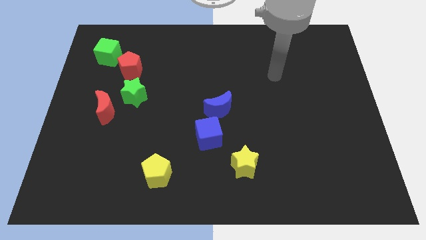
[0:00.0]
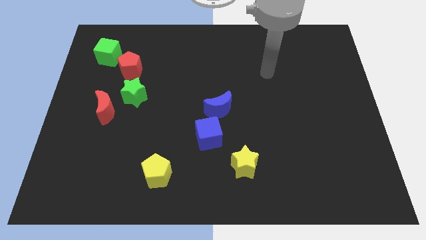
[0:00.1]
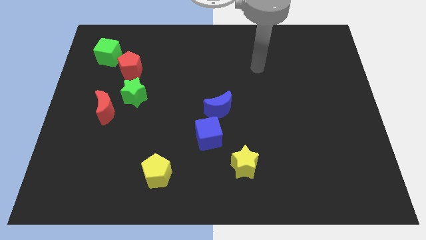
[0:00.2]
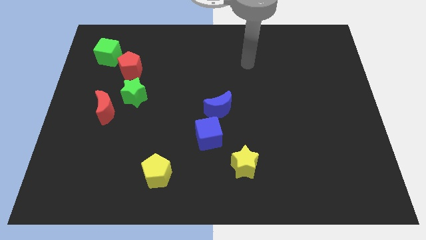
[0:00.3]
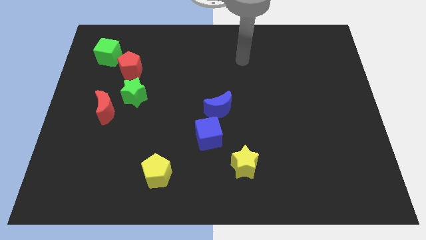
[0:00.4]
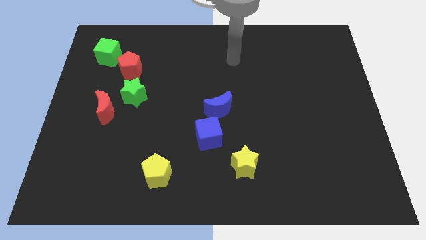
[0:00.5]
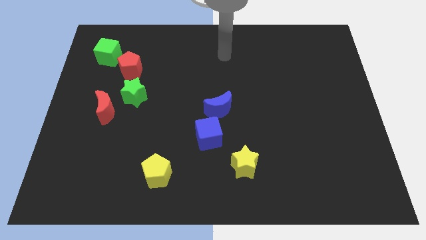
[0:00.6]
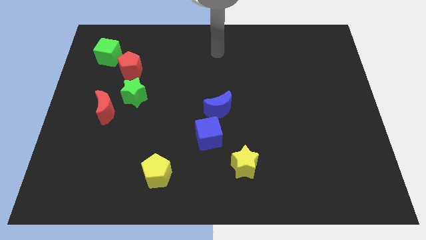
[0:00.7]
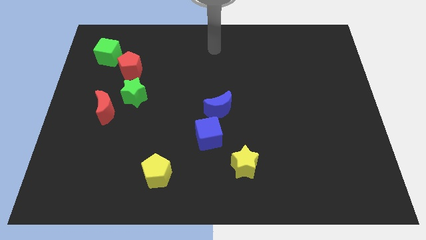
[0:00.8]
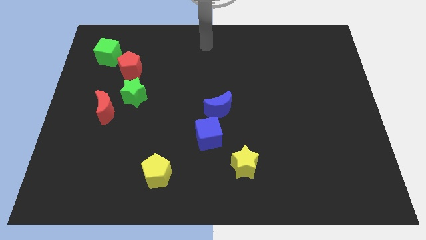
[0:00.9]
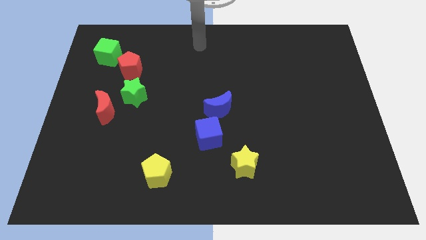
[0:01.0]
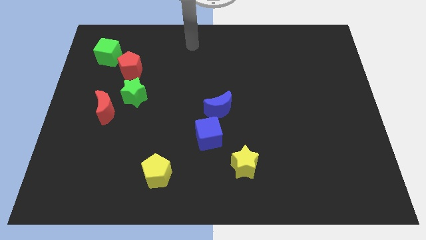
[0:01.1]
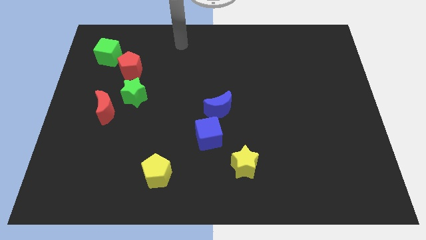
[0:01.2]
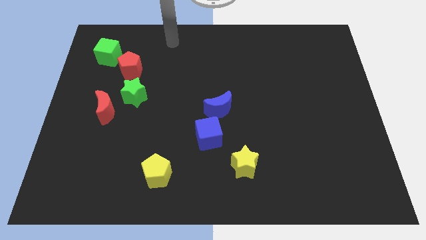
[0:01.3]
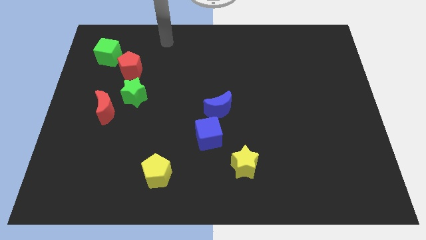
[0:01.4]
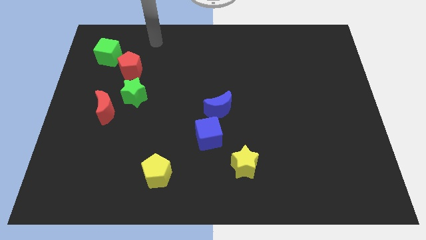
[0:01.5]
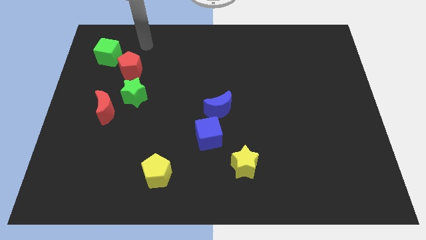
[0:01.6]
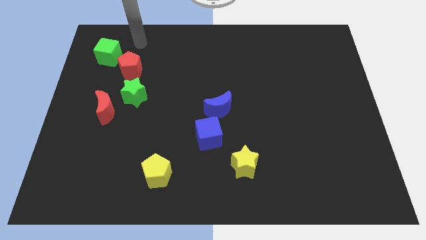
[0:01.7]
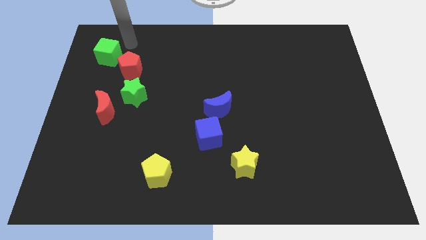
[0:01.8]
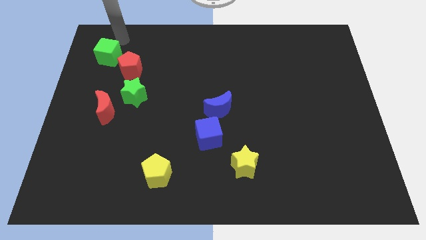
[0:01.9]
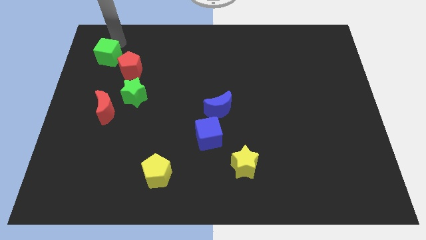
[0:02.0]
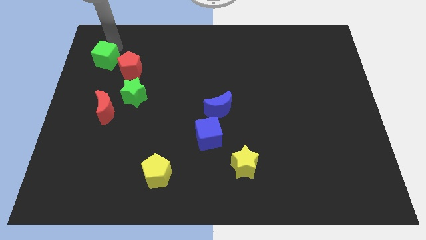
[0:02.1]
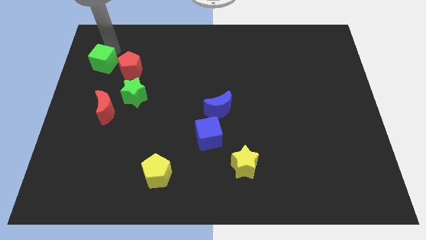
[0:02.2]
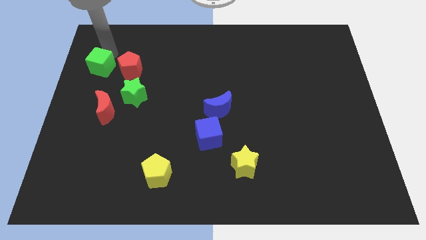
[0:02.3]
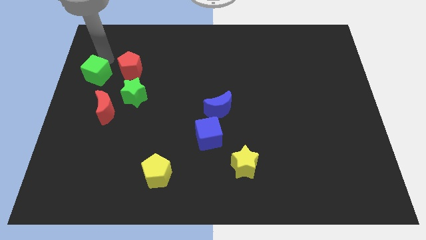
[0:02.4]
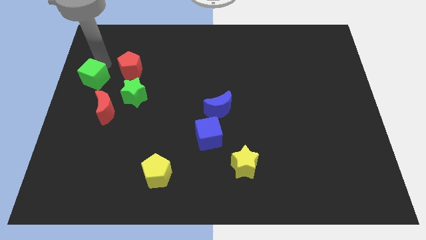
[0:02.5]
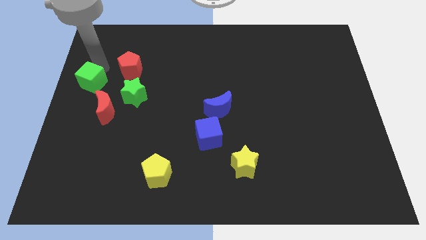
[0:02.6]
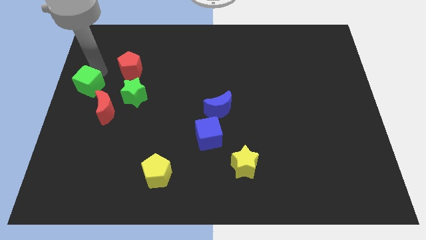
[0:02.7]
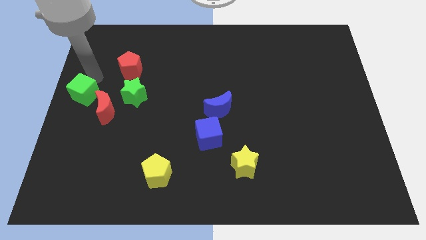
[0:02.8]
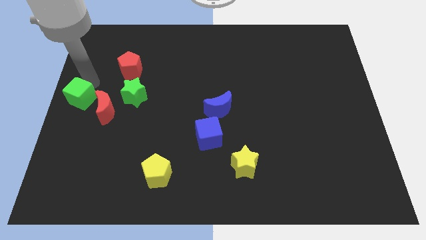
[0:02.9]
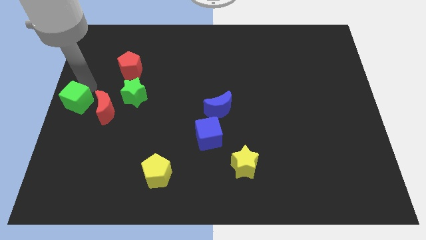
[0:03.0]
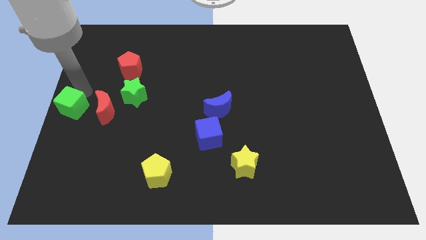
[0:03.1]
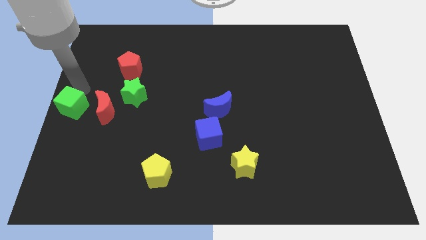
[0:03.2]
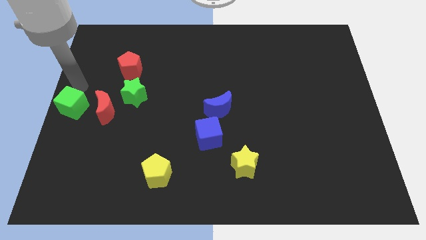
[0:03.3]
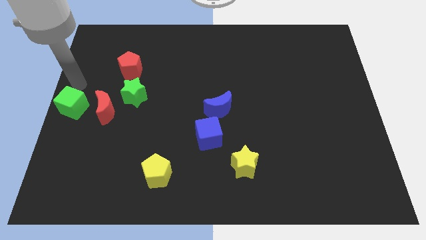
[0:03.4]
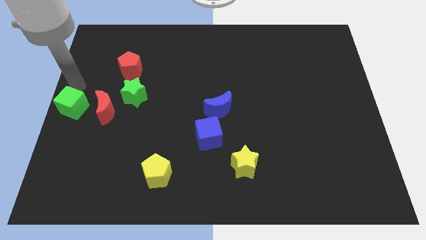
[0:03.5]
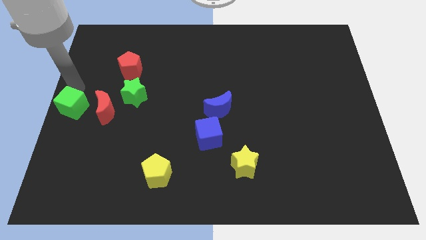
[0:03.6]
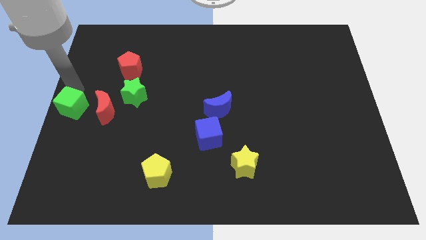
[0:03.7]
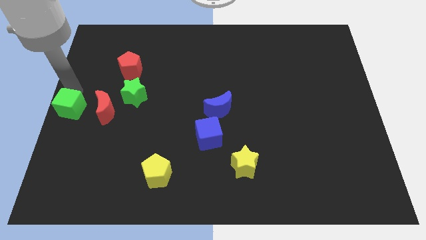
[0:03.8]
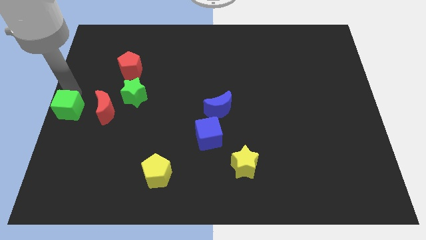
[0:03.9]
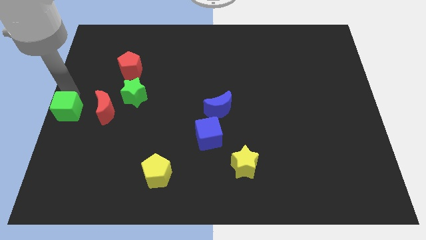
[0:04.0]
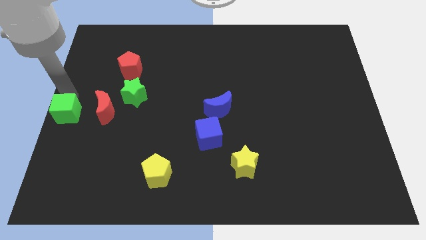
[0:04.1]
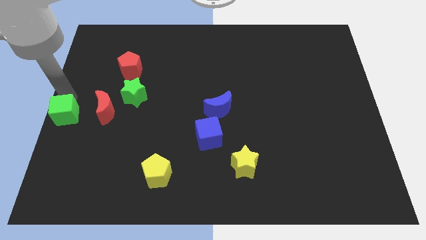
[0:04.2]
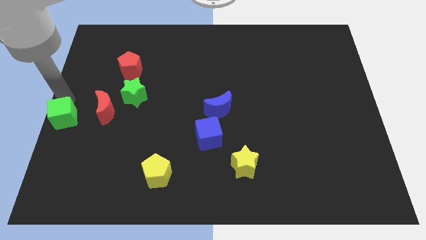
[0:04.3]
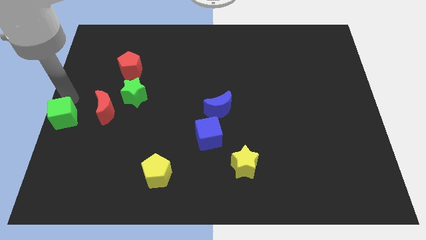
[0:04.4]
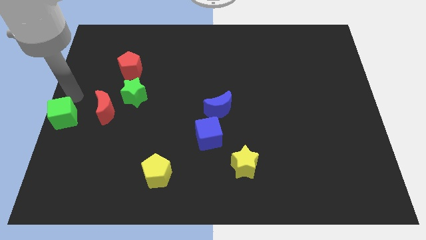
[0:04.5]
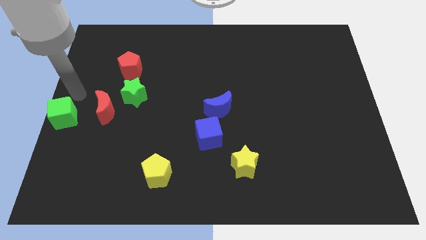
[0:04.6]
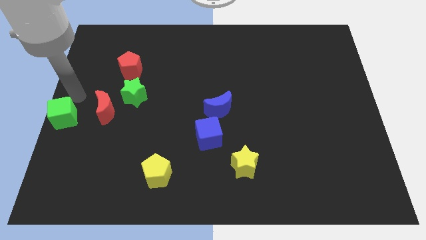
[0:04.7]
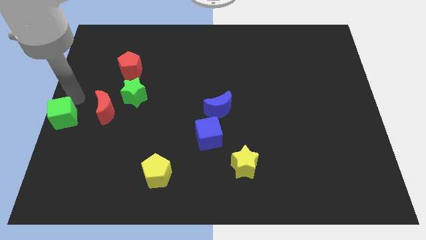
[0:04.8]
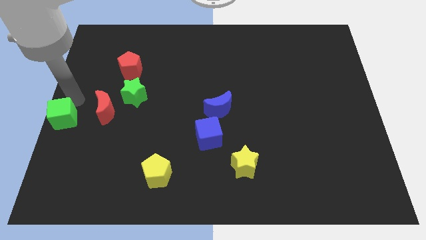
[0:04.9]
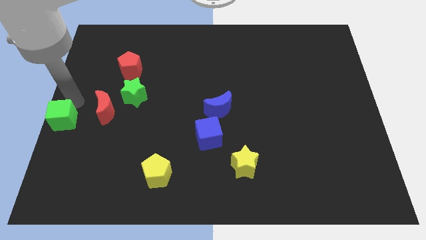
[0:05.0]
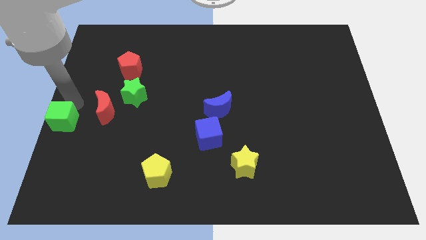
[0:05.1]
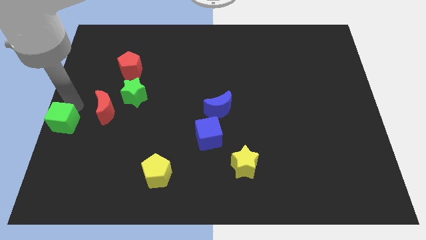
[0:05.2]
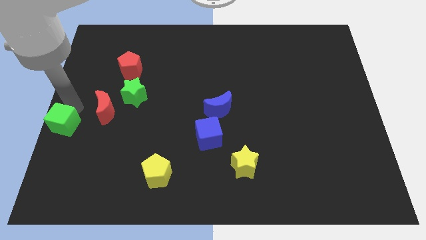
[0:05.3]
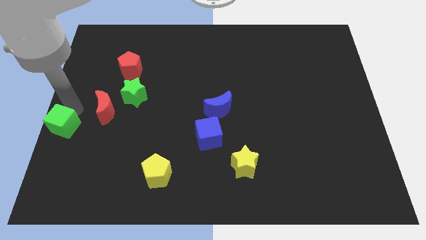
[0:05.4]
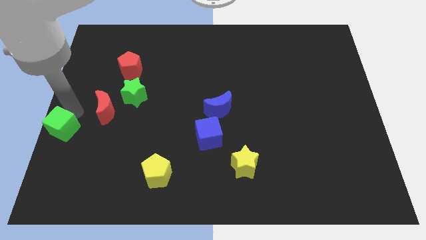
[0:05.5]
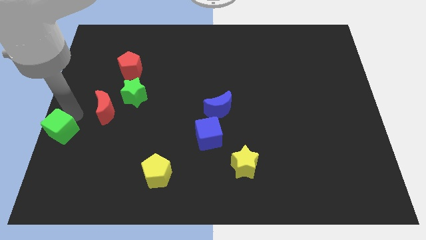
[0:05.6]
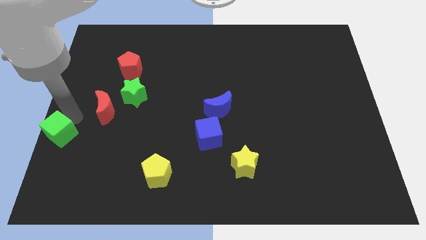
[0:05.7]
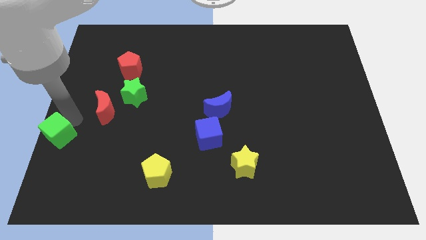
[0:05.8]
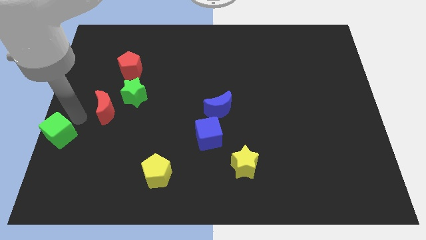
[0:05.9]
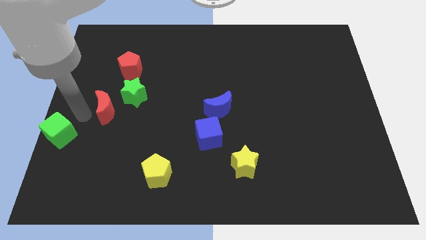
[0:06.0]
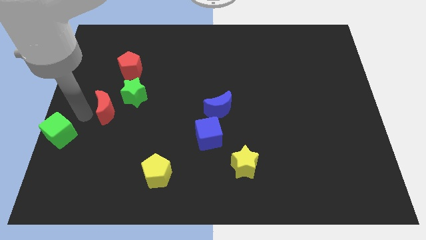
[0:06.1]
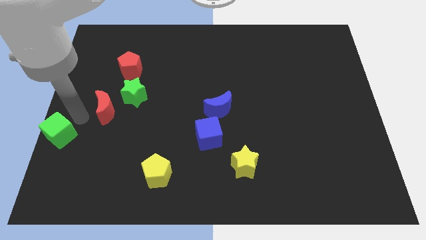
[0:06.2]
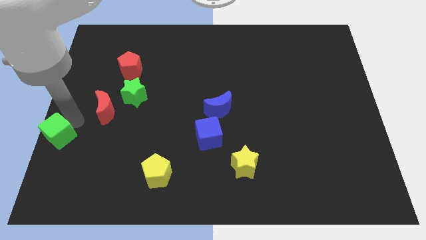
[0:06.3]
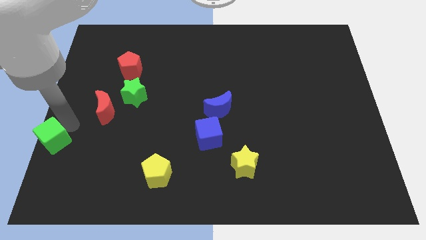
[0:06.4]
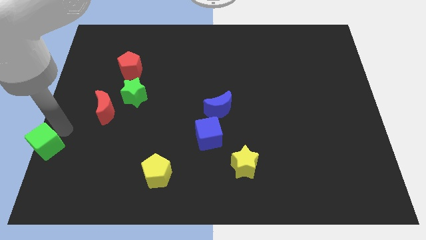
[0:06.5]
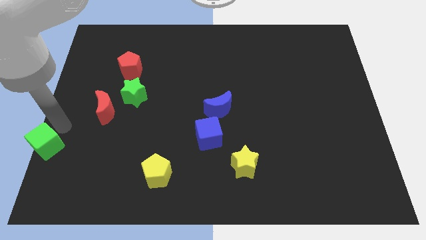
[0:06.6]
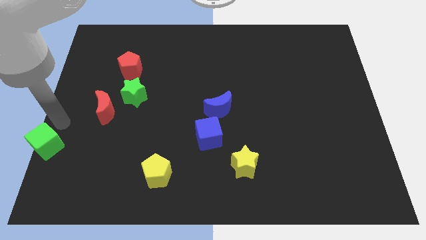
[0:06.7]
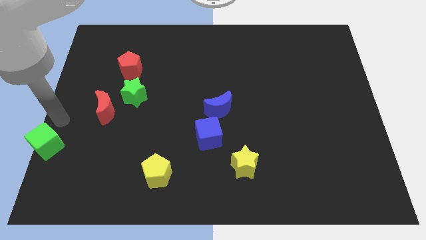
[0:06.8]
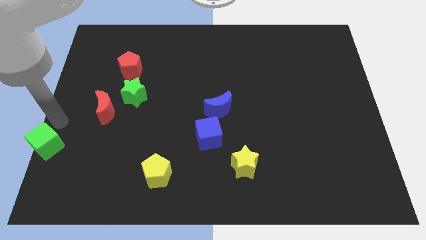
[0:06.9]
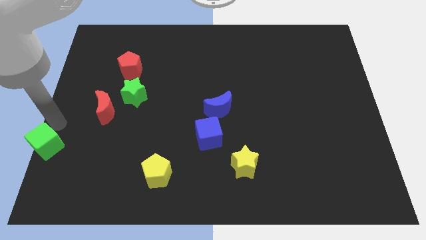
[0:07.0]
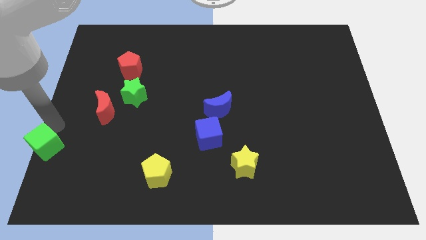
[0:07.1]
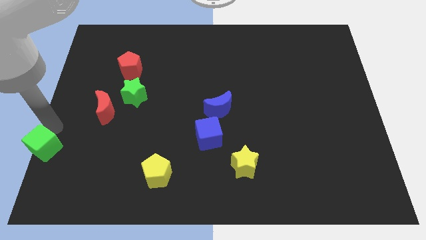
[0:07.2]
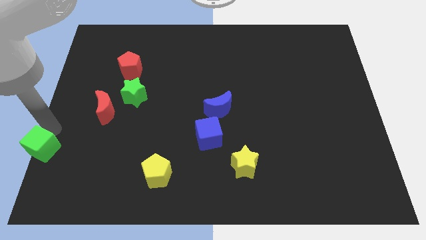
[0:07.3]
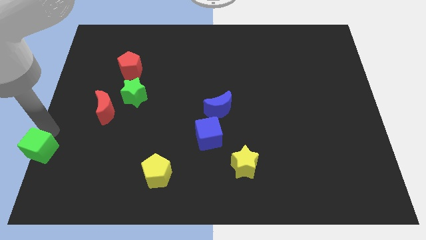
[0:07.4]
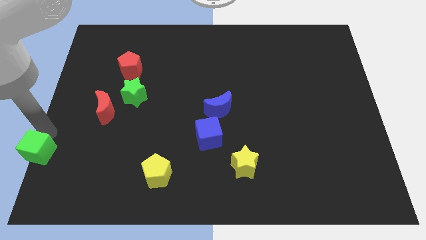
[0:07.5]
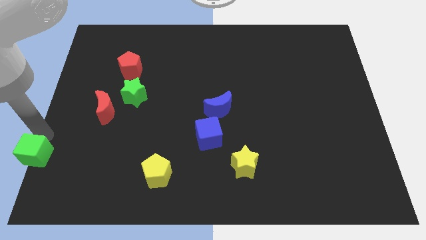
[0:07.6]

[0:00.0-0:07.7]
push the green cube to the bottom left
